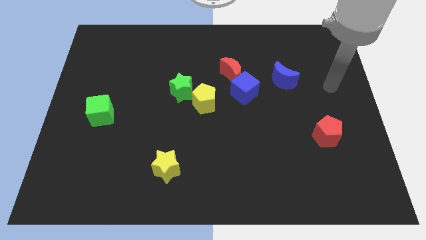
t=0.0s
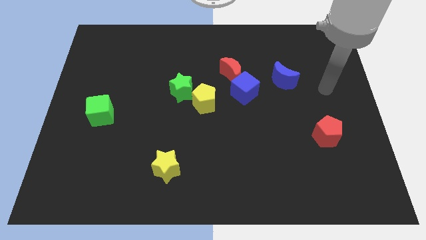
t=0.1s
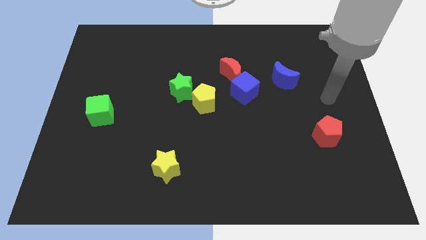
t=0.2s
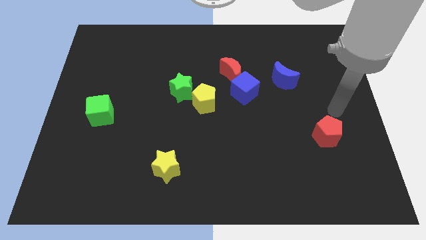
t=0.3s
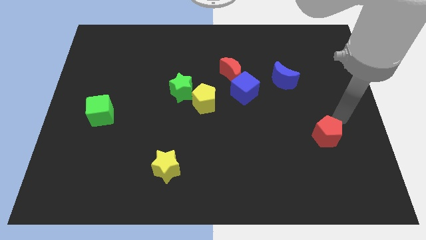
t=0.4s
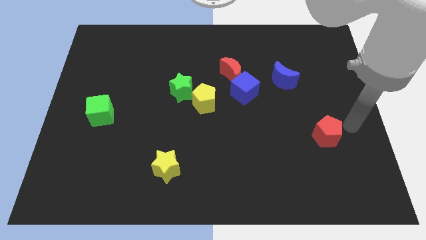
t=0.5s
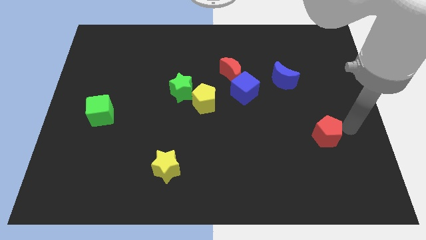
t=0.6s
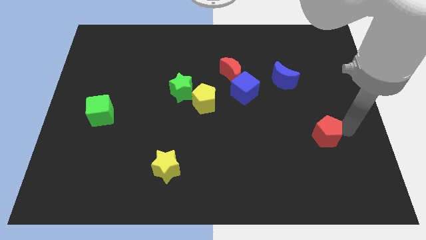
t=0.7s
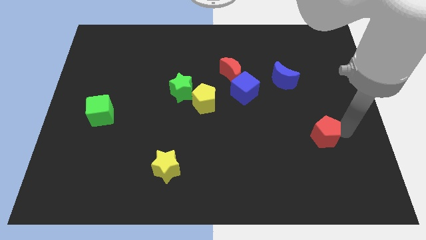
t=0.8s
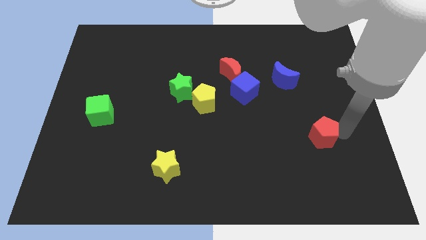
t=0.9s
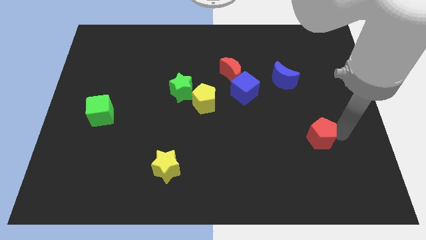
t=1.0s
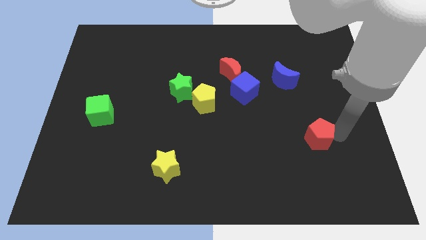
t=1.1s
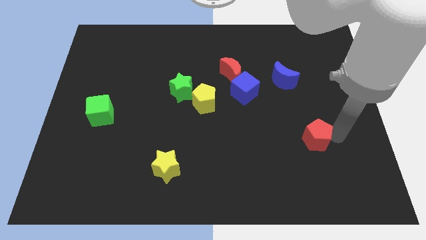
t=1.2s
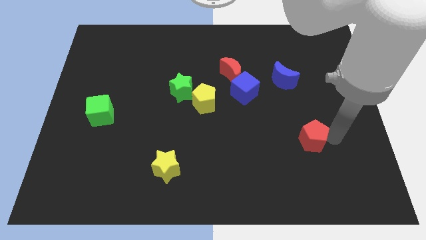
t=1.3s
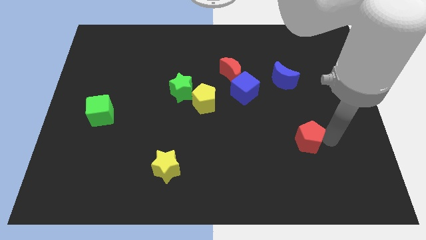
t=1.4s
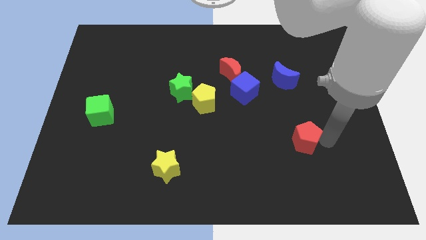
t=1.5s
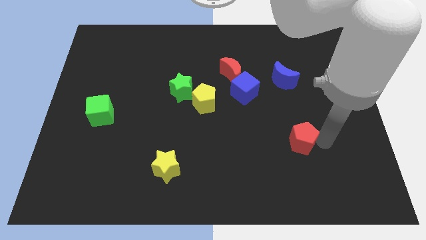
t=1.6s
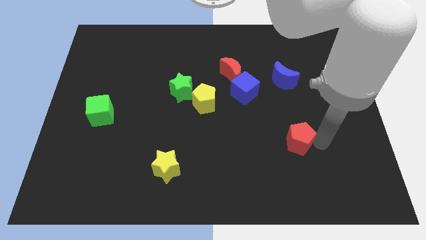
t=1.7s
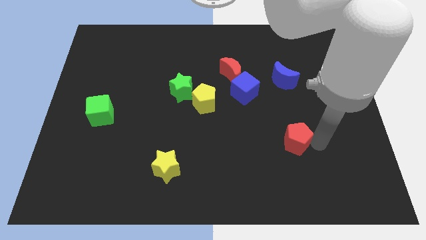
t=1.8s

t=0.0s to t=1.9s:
move the red pentagon to the left slightly

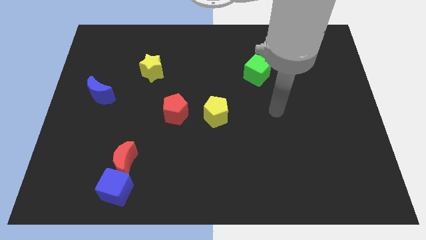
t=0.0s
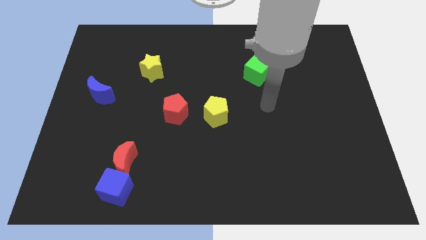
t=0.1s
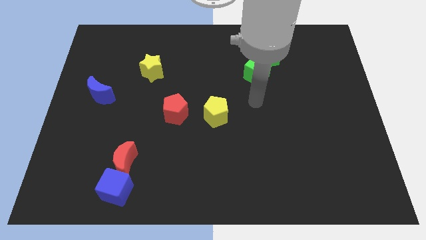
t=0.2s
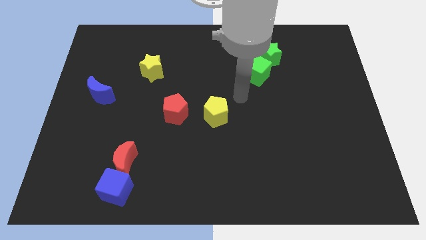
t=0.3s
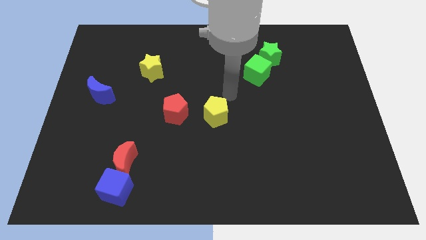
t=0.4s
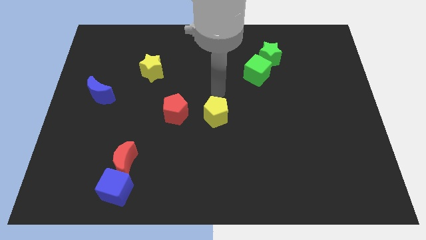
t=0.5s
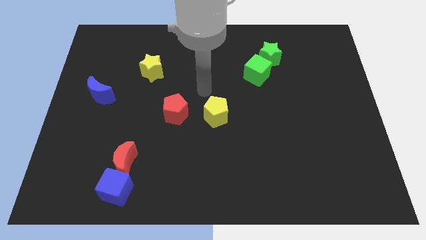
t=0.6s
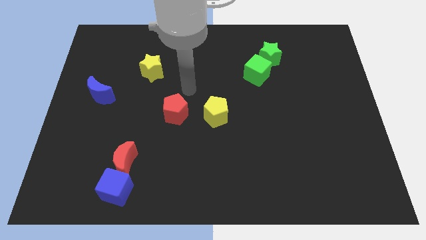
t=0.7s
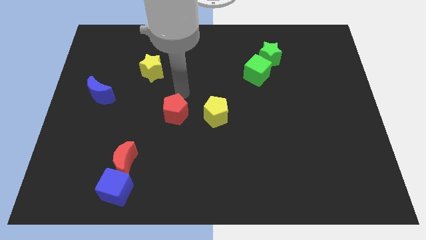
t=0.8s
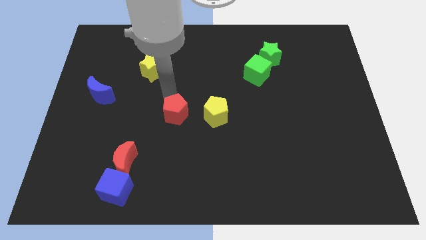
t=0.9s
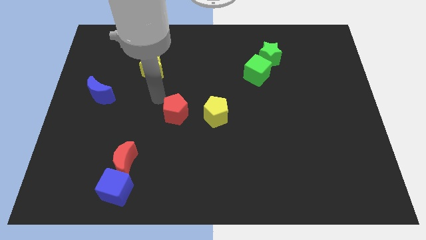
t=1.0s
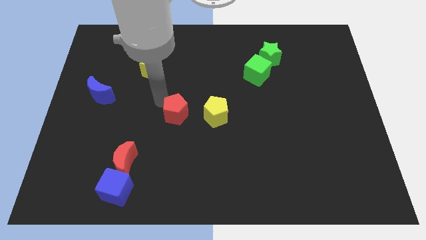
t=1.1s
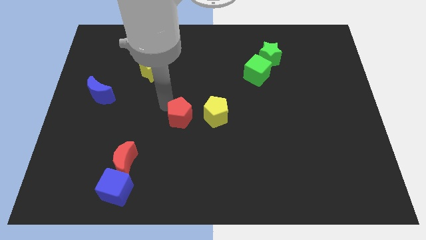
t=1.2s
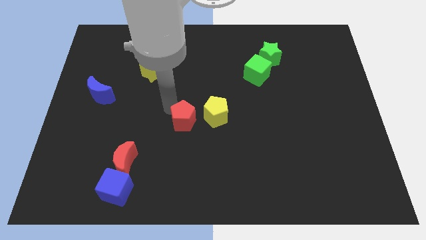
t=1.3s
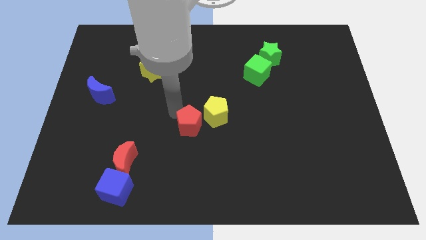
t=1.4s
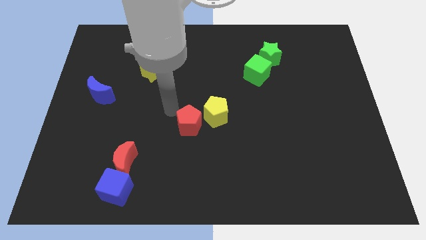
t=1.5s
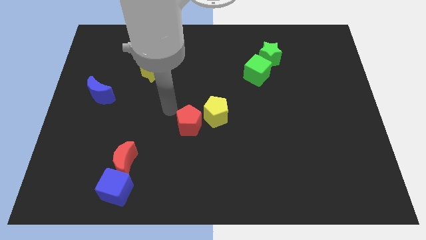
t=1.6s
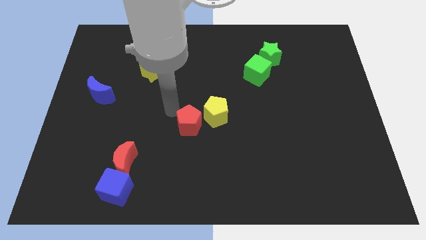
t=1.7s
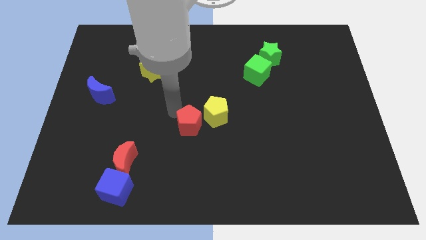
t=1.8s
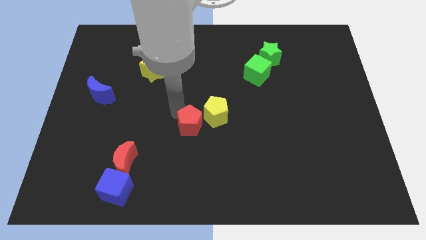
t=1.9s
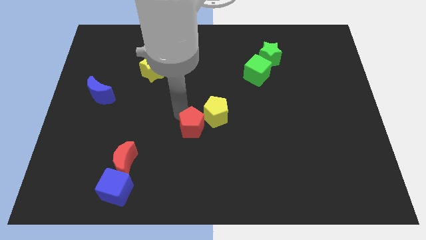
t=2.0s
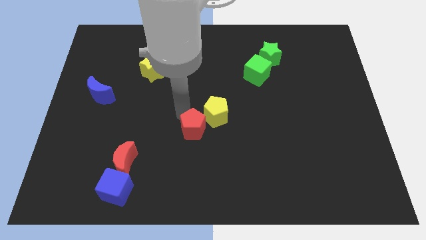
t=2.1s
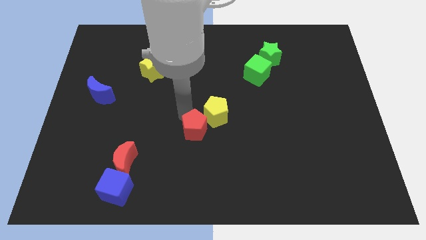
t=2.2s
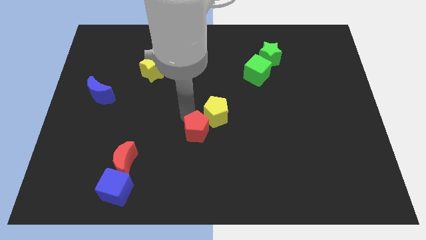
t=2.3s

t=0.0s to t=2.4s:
slightly move the red pentagon downwards and then to the right

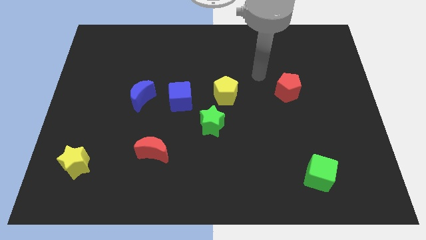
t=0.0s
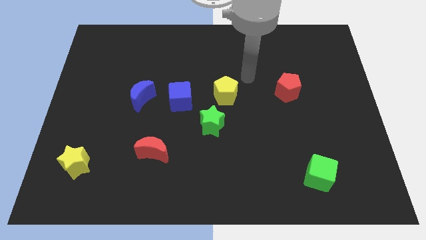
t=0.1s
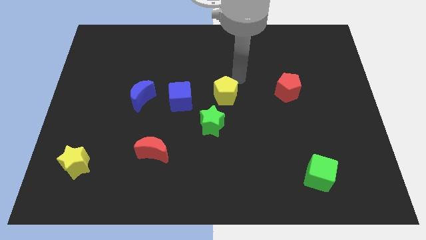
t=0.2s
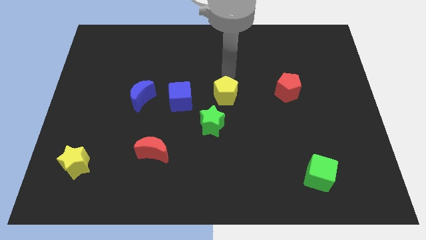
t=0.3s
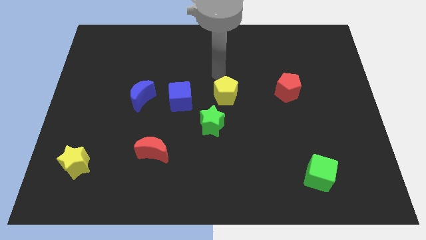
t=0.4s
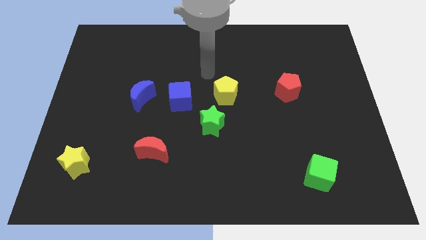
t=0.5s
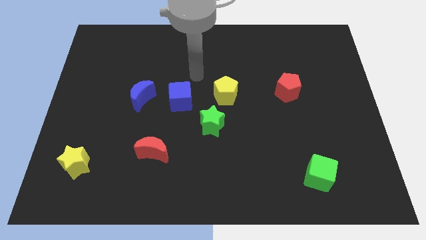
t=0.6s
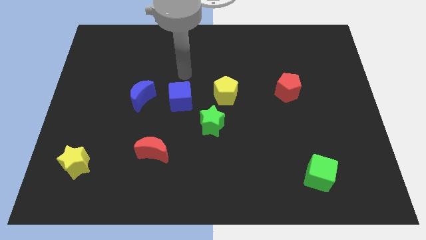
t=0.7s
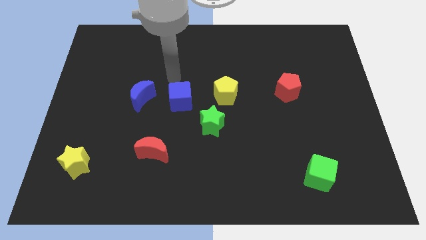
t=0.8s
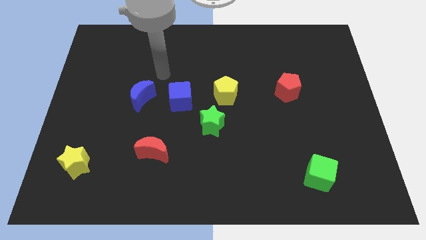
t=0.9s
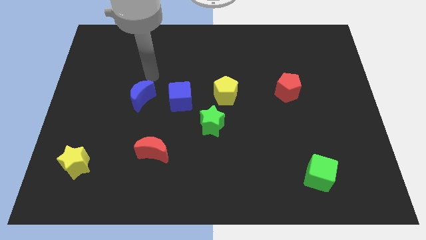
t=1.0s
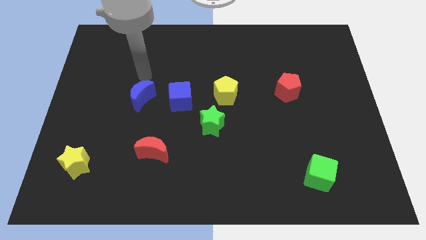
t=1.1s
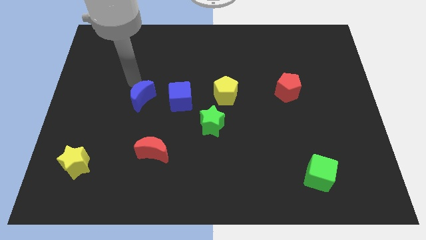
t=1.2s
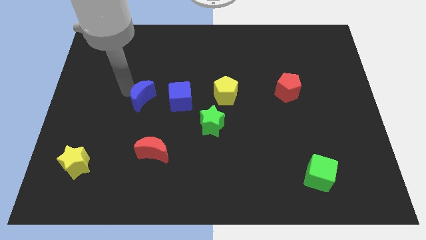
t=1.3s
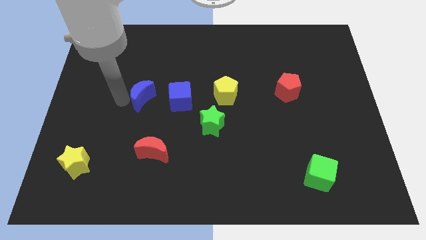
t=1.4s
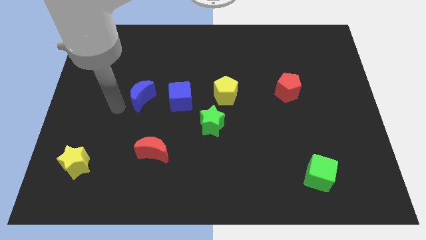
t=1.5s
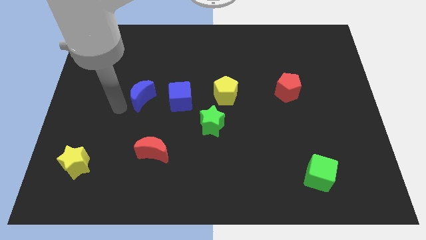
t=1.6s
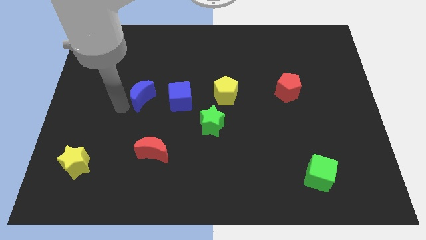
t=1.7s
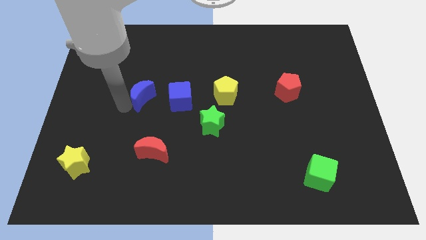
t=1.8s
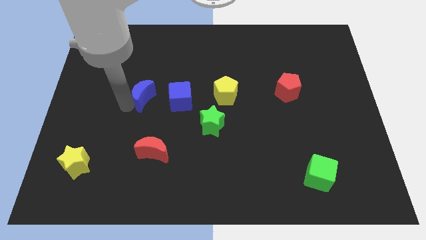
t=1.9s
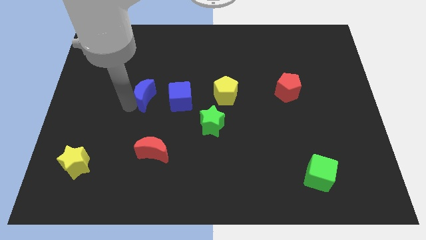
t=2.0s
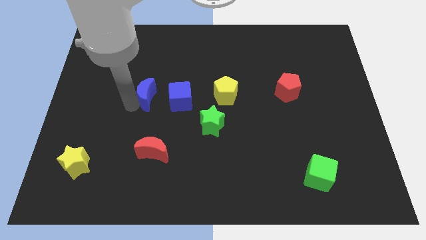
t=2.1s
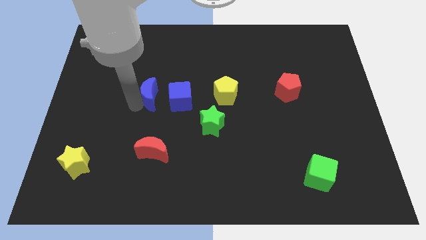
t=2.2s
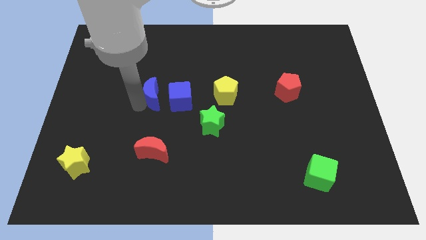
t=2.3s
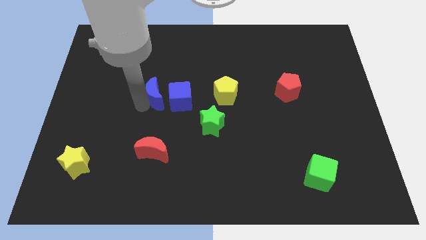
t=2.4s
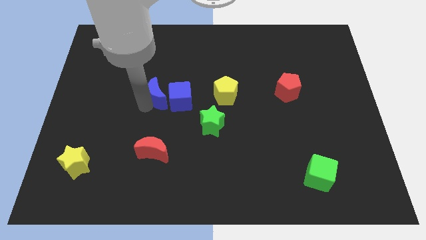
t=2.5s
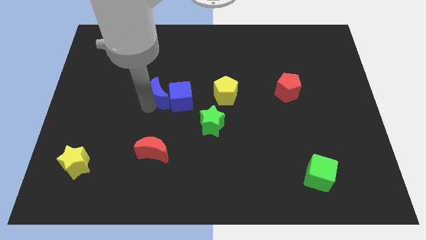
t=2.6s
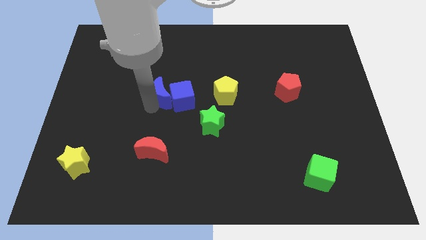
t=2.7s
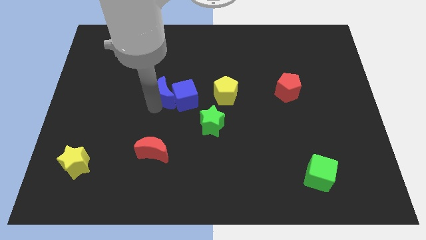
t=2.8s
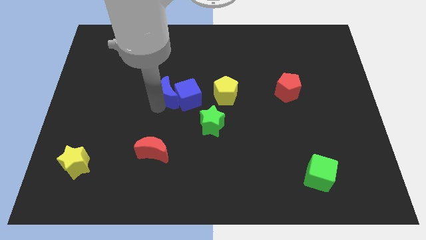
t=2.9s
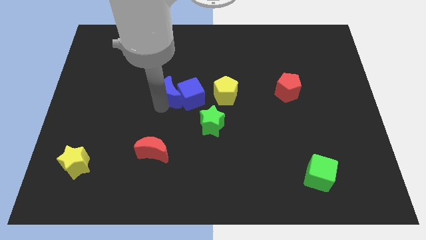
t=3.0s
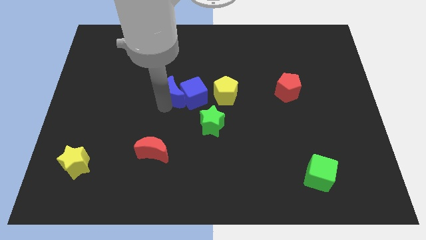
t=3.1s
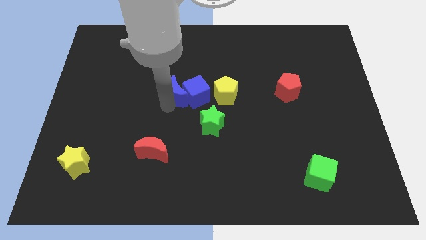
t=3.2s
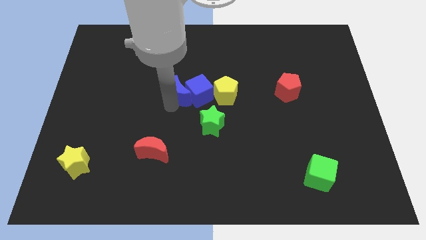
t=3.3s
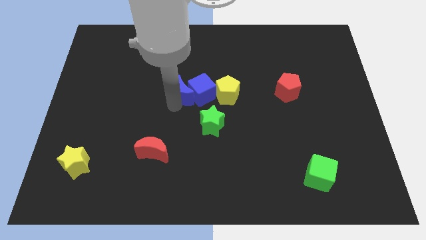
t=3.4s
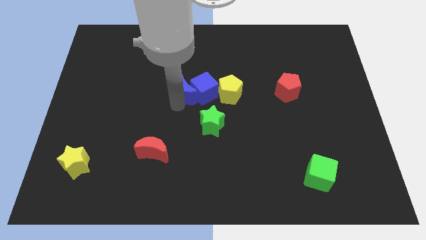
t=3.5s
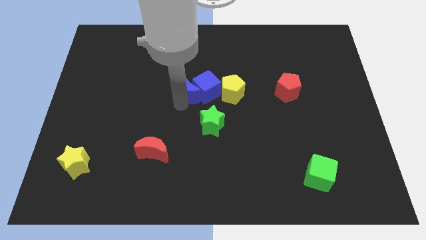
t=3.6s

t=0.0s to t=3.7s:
push the blue moon a little up and to the right
